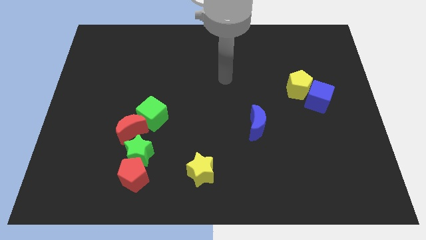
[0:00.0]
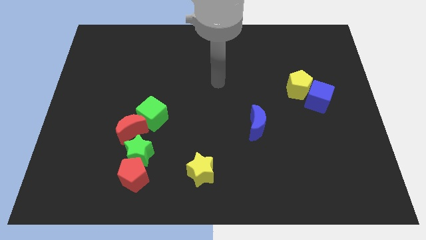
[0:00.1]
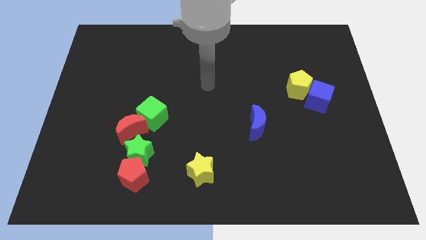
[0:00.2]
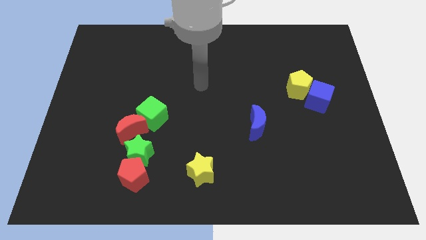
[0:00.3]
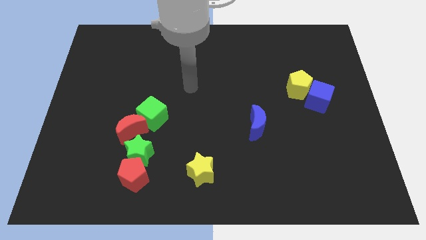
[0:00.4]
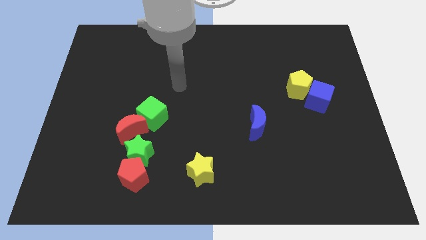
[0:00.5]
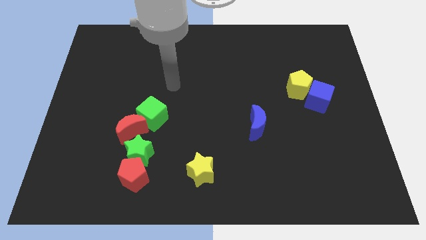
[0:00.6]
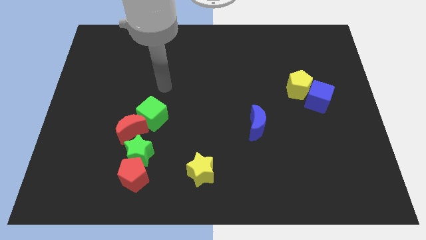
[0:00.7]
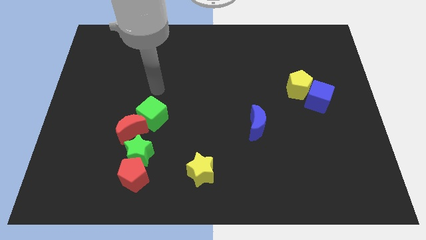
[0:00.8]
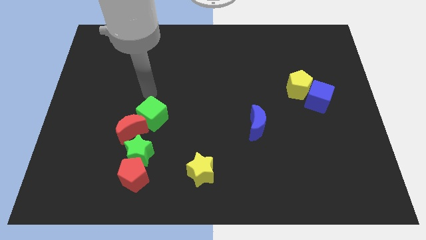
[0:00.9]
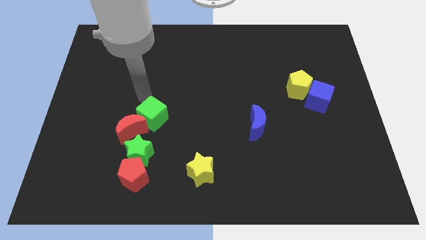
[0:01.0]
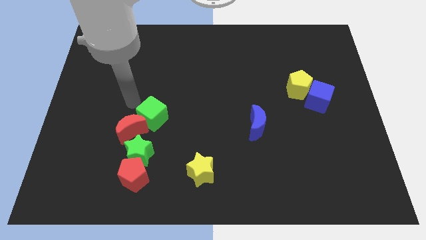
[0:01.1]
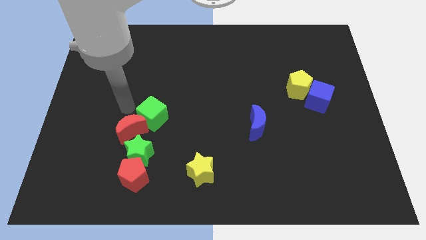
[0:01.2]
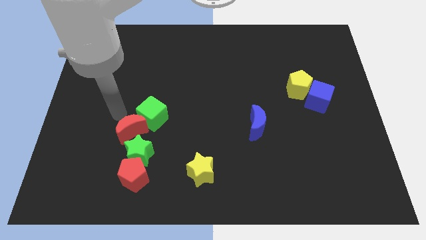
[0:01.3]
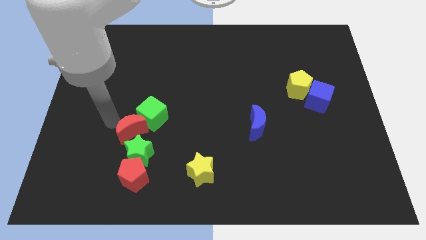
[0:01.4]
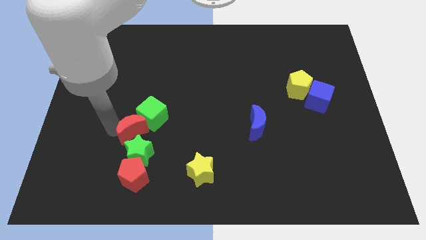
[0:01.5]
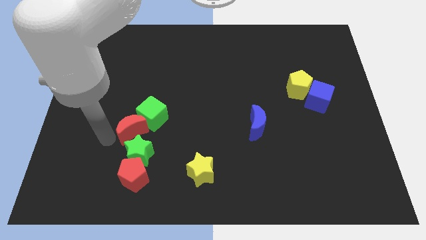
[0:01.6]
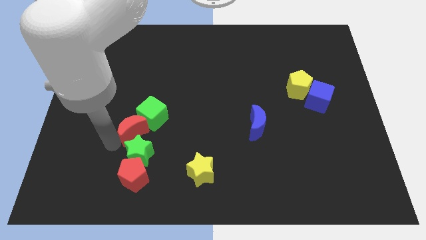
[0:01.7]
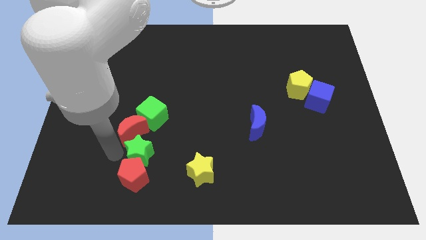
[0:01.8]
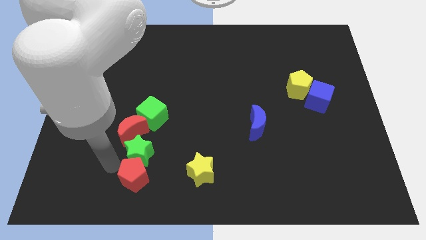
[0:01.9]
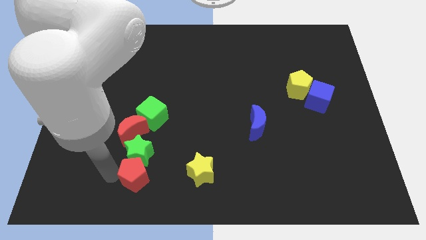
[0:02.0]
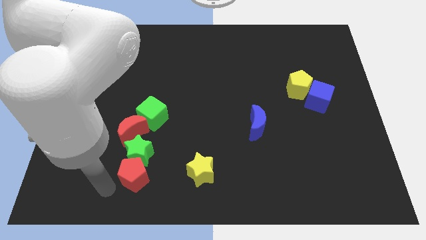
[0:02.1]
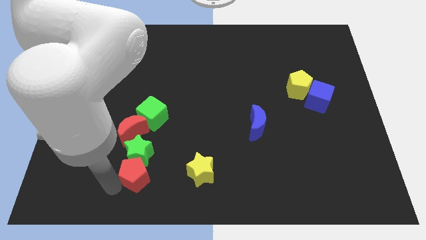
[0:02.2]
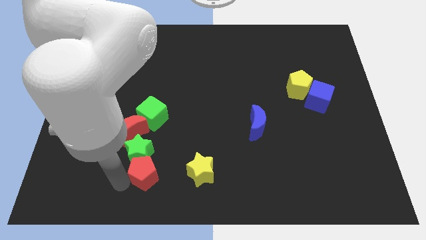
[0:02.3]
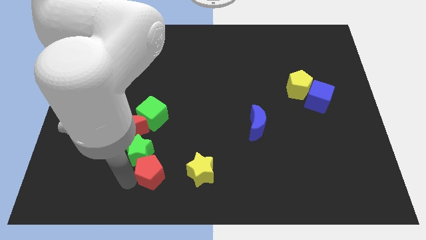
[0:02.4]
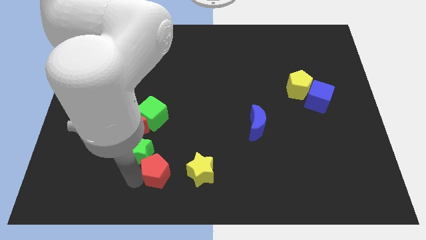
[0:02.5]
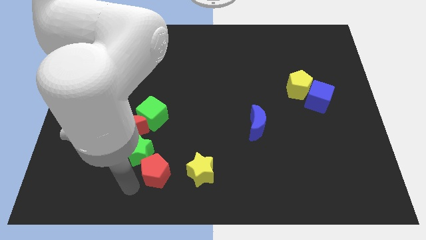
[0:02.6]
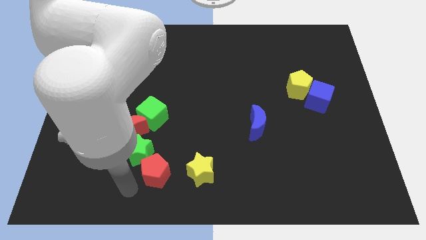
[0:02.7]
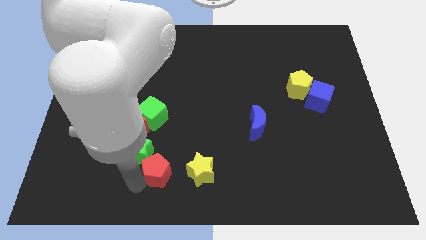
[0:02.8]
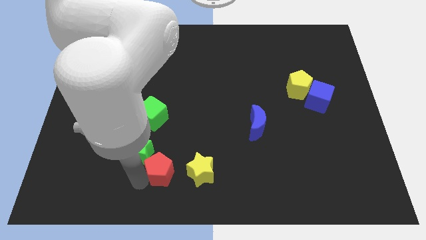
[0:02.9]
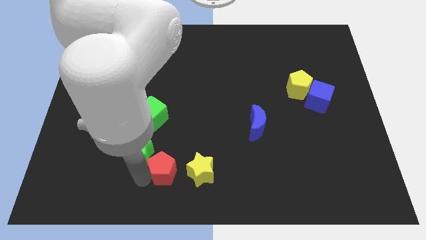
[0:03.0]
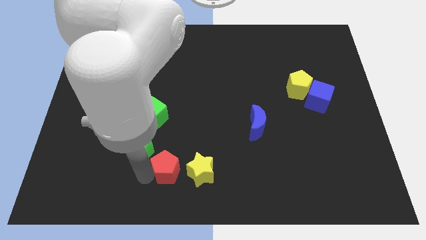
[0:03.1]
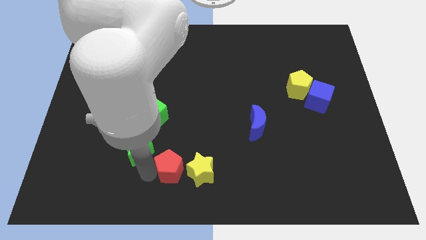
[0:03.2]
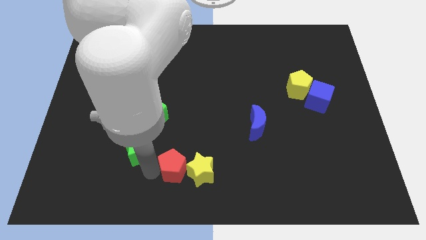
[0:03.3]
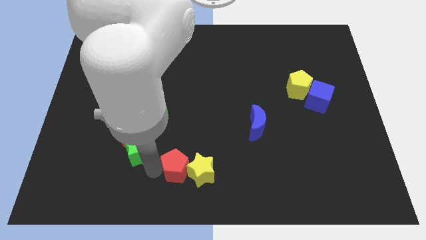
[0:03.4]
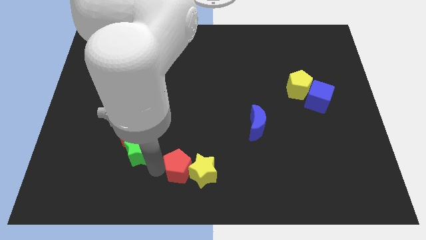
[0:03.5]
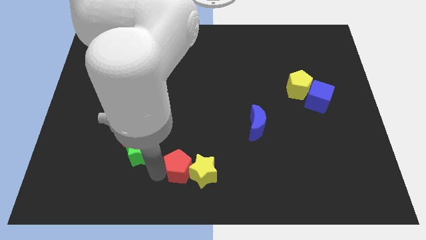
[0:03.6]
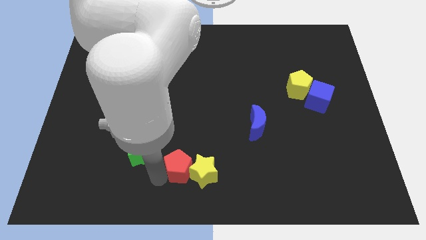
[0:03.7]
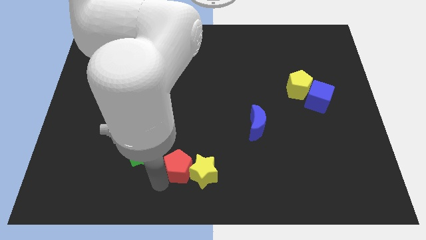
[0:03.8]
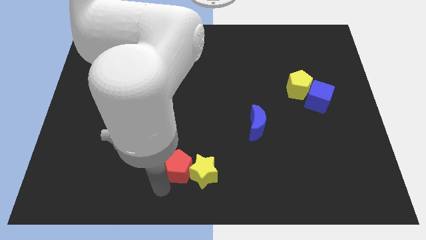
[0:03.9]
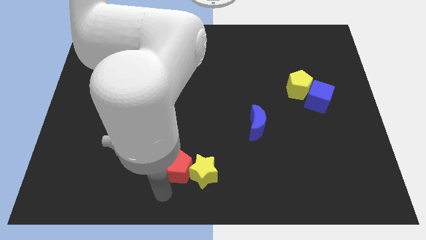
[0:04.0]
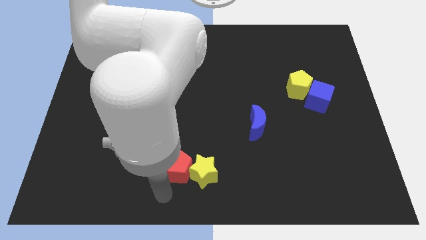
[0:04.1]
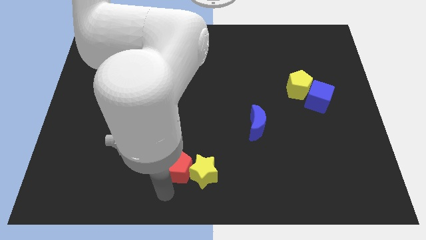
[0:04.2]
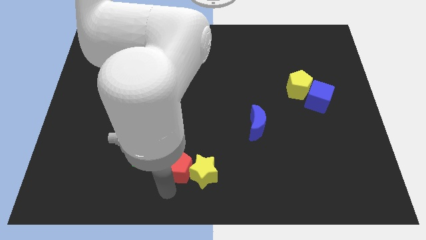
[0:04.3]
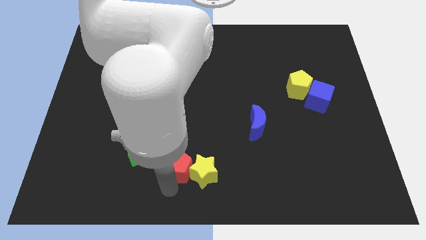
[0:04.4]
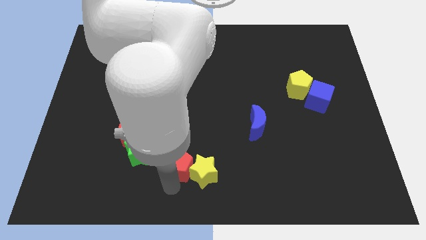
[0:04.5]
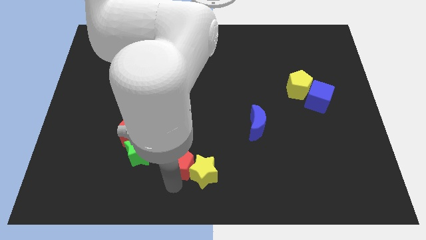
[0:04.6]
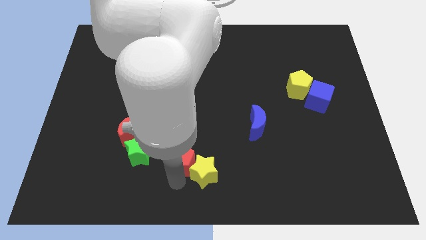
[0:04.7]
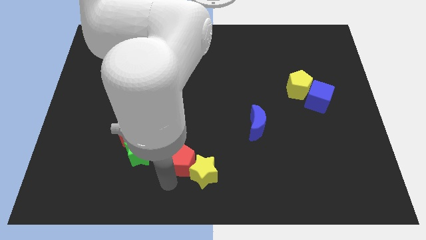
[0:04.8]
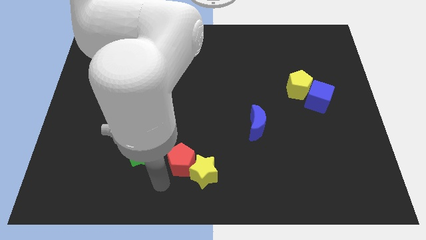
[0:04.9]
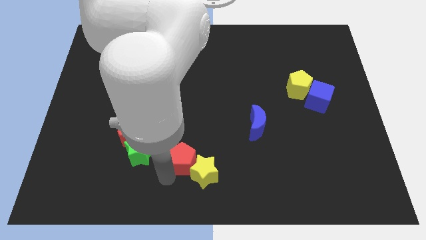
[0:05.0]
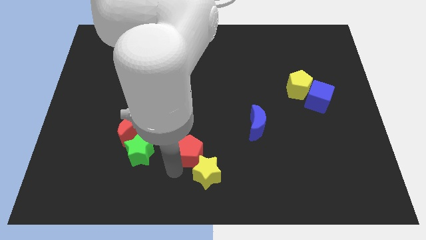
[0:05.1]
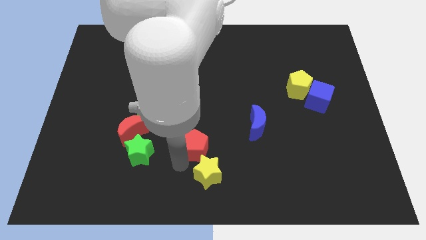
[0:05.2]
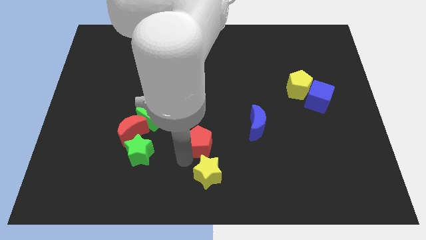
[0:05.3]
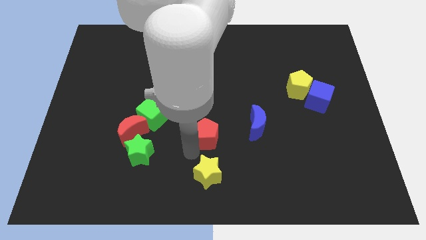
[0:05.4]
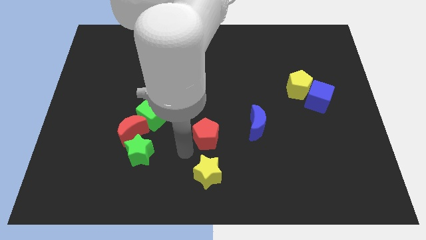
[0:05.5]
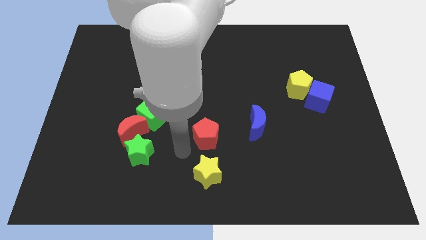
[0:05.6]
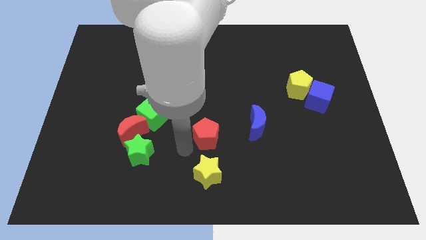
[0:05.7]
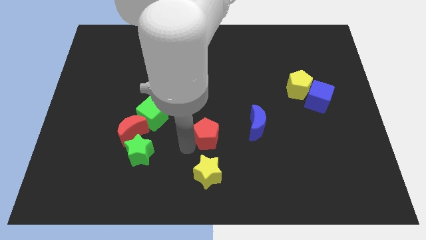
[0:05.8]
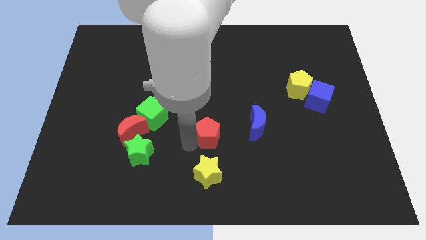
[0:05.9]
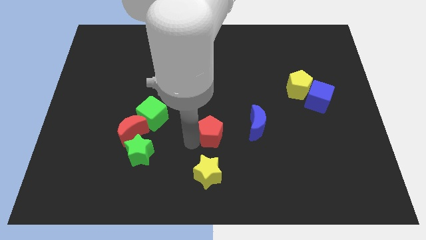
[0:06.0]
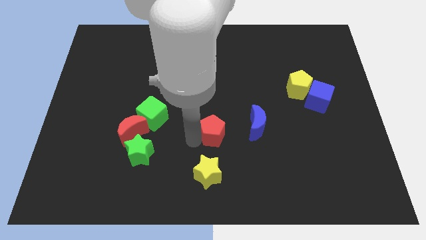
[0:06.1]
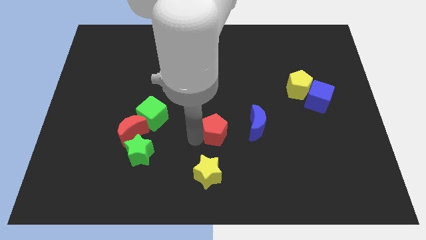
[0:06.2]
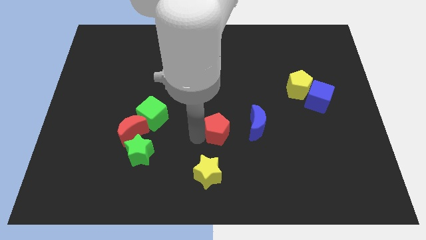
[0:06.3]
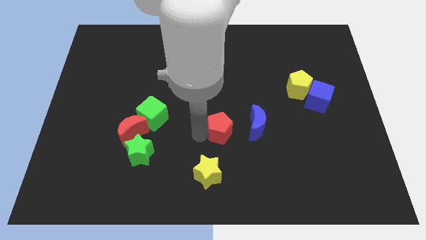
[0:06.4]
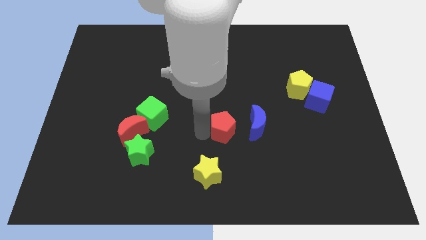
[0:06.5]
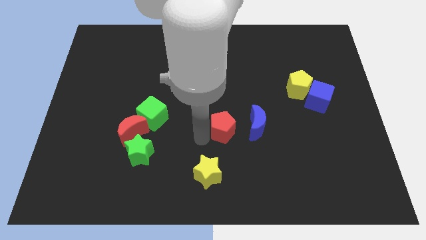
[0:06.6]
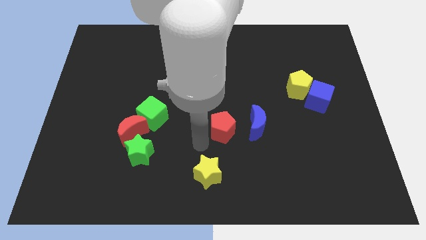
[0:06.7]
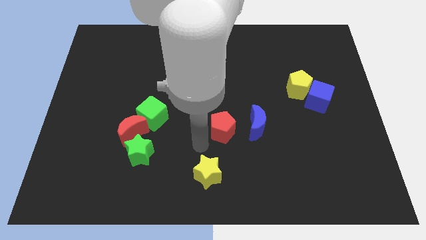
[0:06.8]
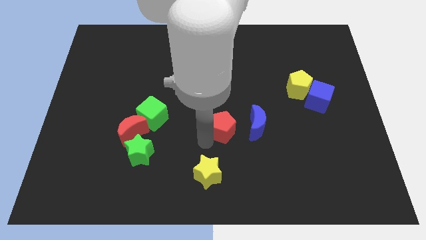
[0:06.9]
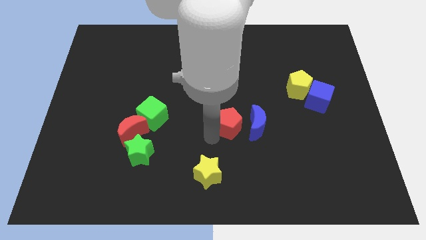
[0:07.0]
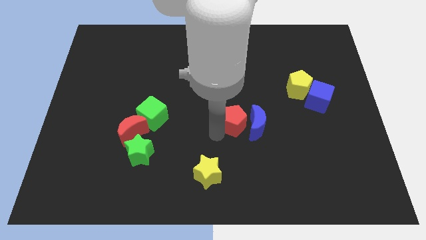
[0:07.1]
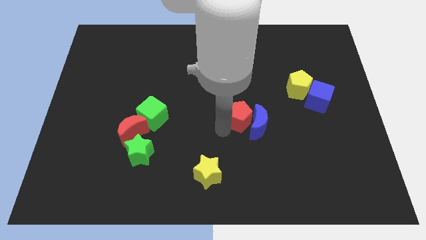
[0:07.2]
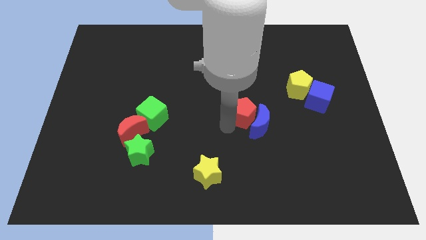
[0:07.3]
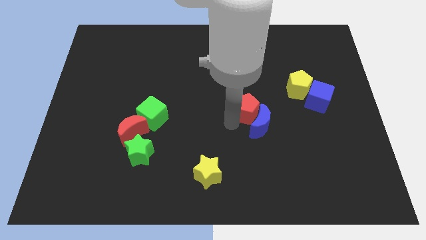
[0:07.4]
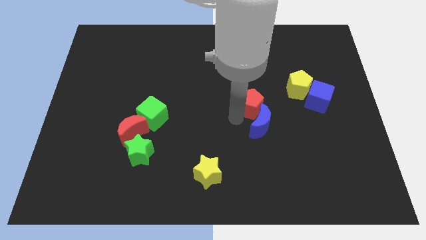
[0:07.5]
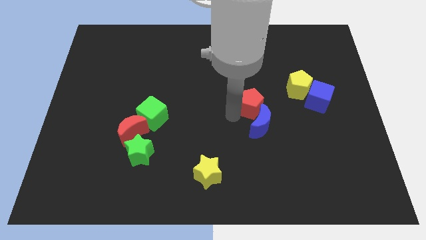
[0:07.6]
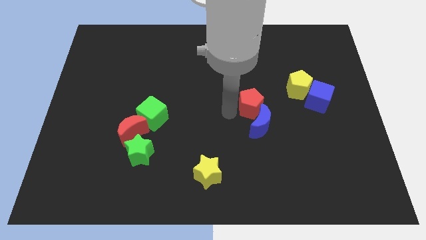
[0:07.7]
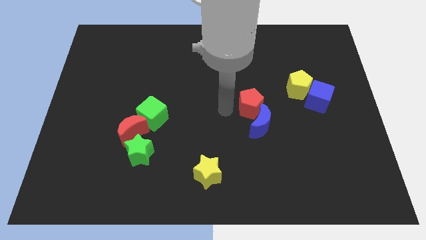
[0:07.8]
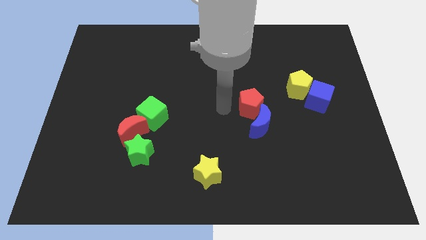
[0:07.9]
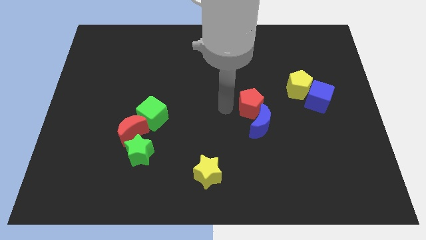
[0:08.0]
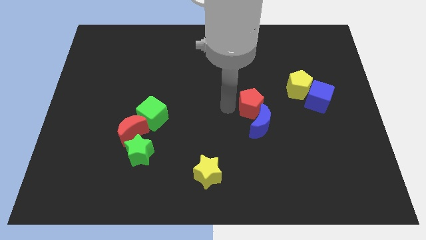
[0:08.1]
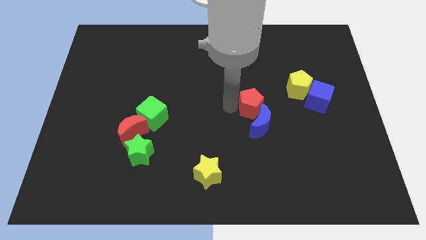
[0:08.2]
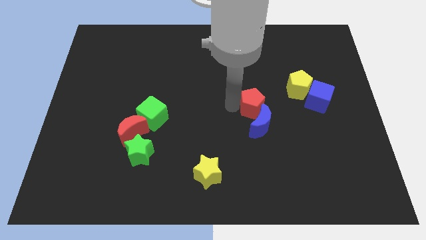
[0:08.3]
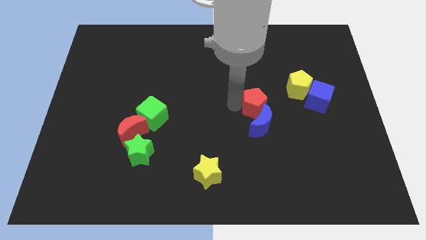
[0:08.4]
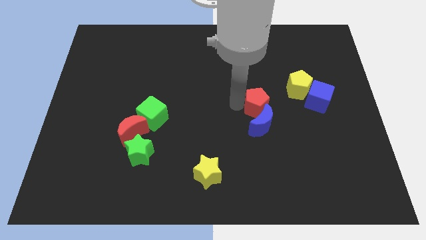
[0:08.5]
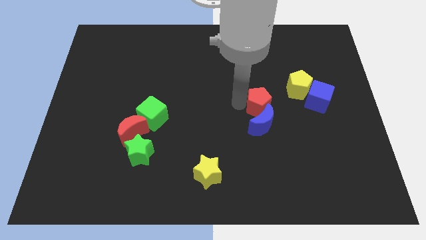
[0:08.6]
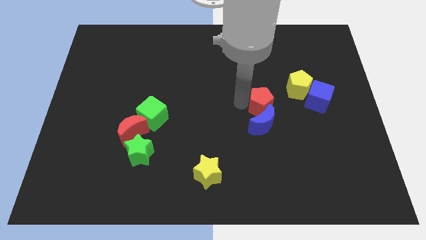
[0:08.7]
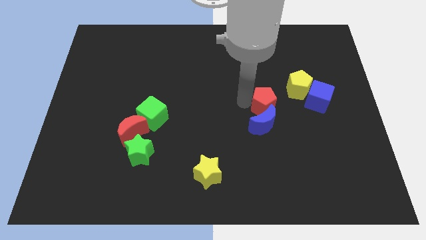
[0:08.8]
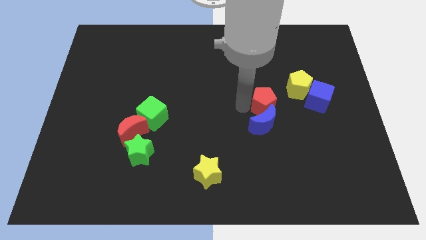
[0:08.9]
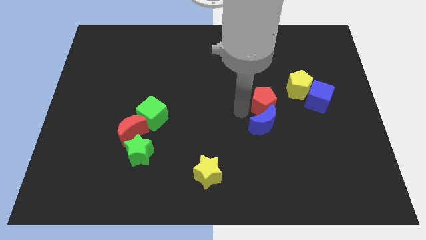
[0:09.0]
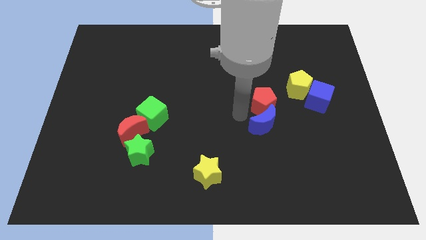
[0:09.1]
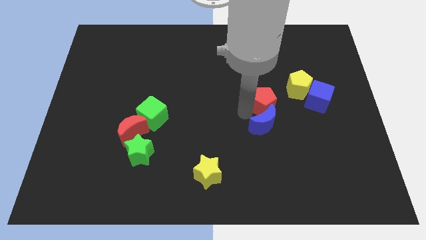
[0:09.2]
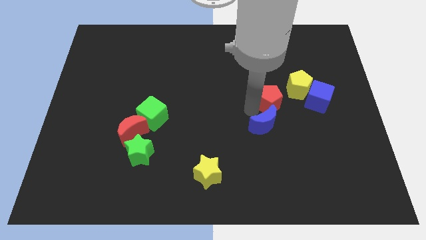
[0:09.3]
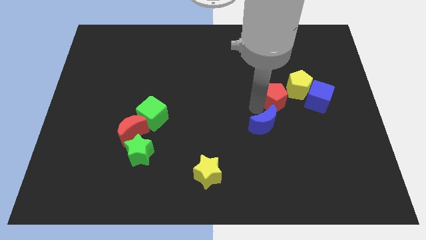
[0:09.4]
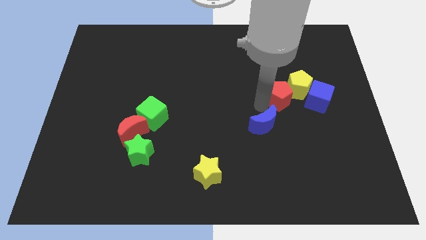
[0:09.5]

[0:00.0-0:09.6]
slide the red pentagon close to the yellow pentagon
